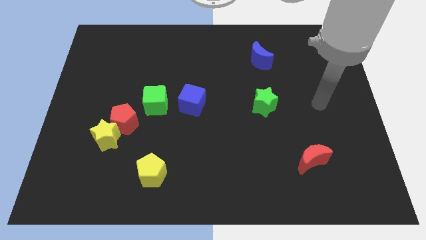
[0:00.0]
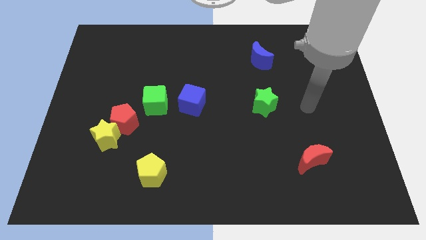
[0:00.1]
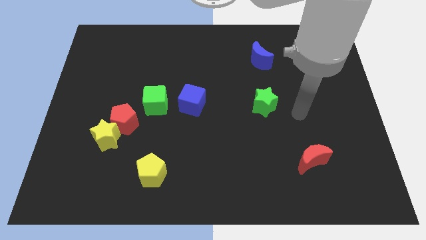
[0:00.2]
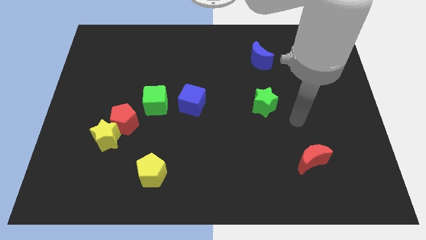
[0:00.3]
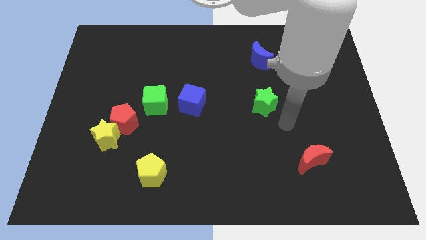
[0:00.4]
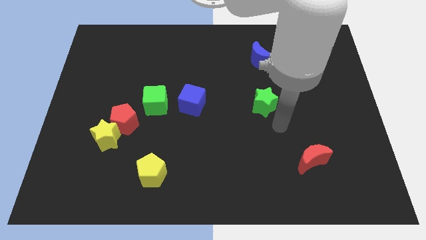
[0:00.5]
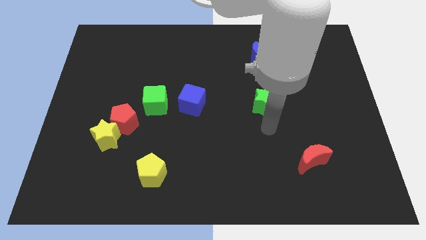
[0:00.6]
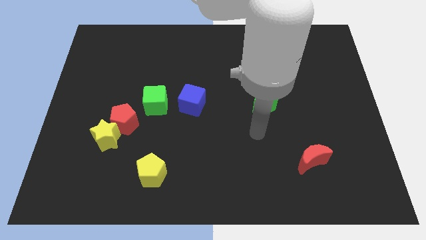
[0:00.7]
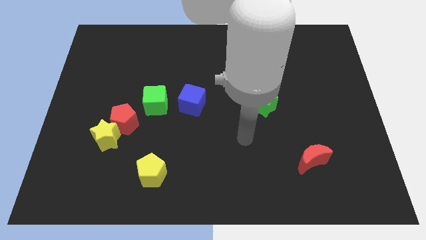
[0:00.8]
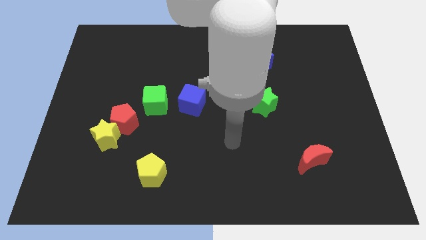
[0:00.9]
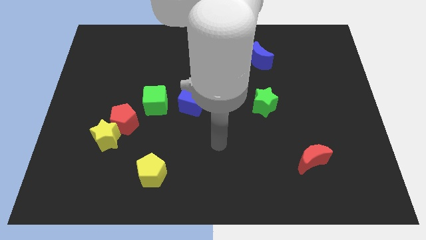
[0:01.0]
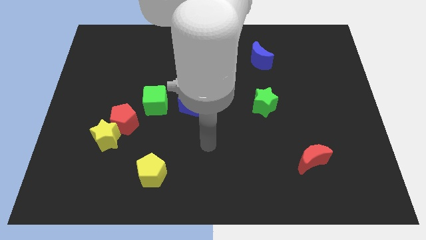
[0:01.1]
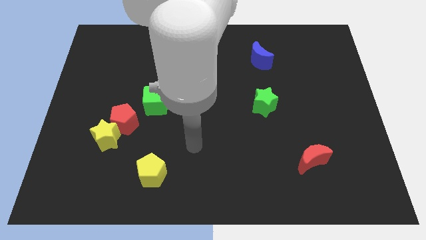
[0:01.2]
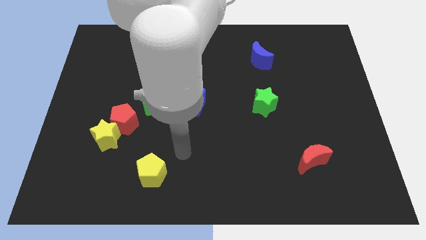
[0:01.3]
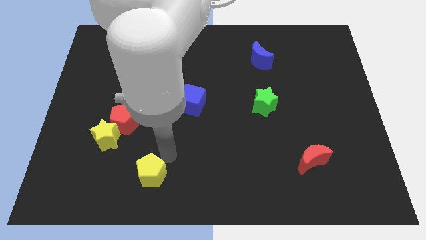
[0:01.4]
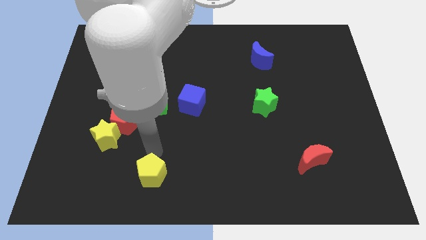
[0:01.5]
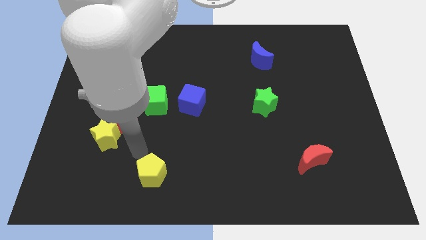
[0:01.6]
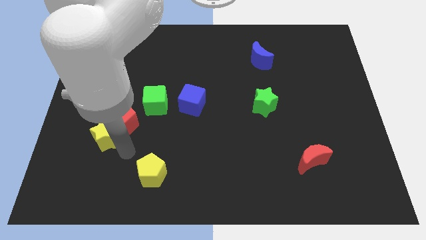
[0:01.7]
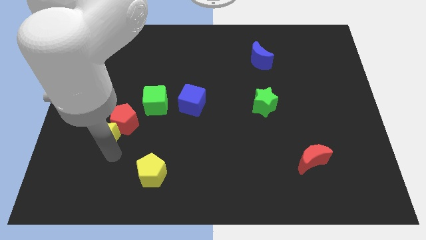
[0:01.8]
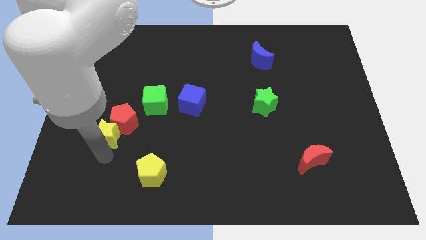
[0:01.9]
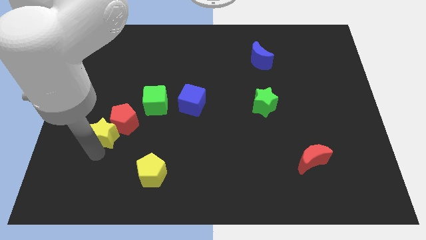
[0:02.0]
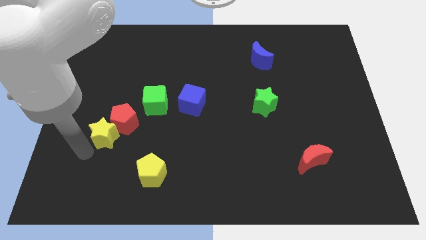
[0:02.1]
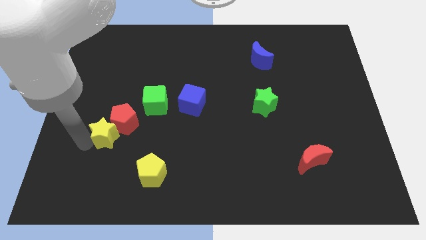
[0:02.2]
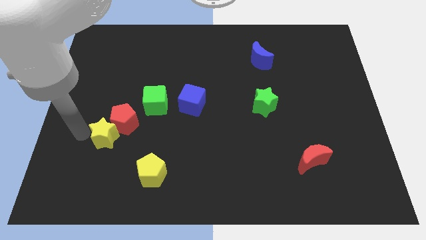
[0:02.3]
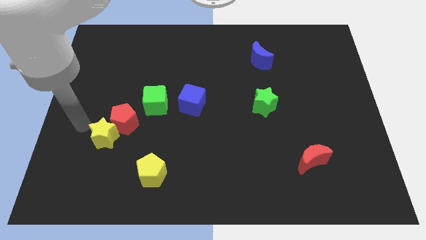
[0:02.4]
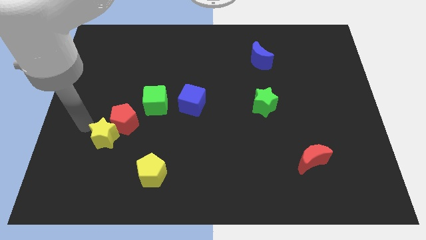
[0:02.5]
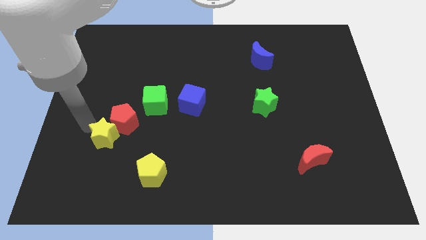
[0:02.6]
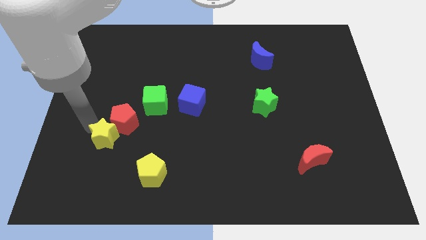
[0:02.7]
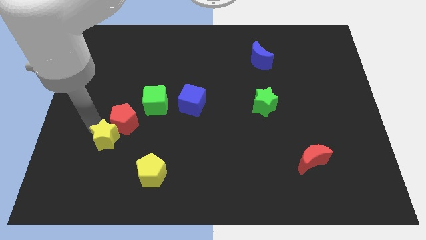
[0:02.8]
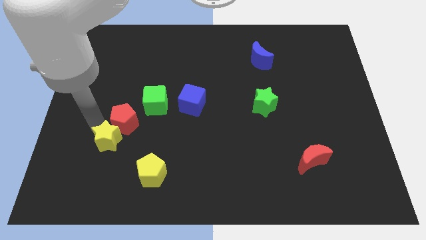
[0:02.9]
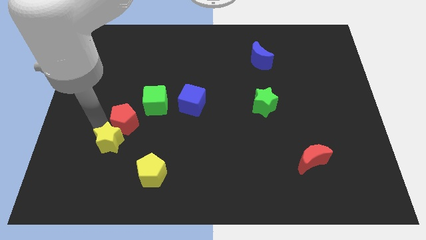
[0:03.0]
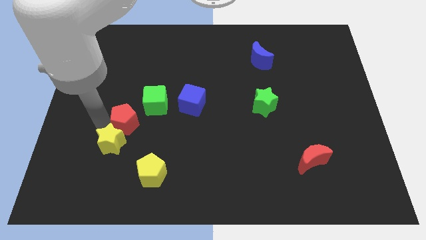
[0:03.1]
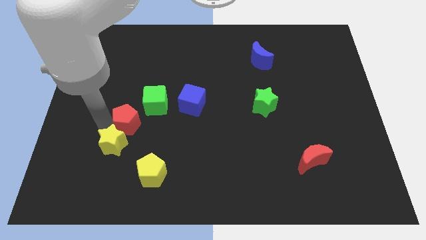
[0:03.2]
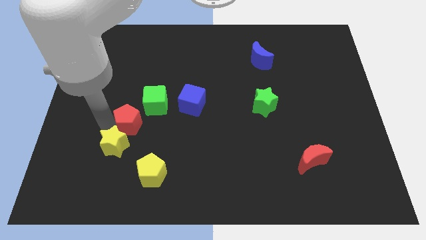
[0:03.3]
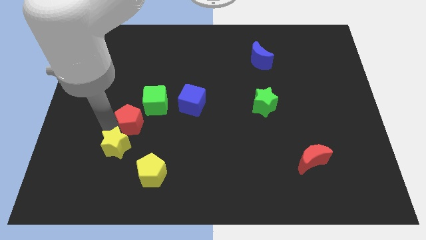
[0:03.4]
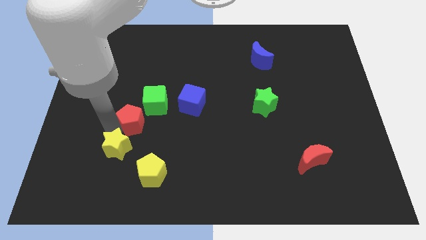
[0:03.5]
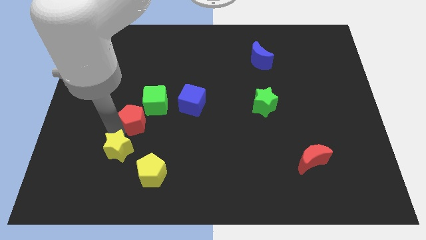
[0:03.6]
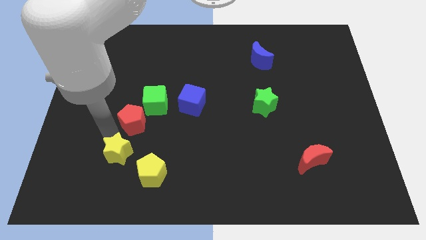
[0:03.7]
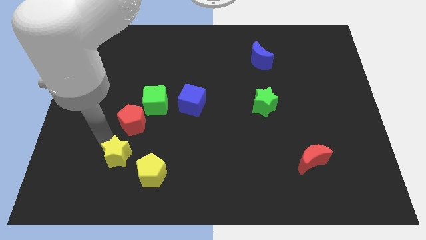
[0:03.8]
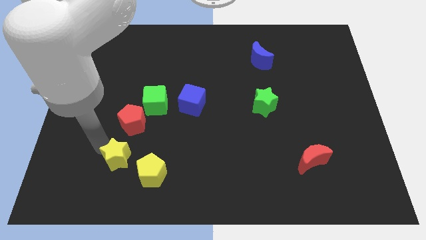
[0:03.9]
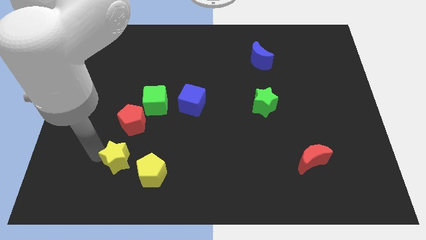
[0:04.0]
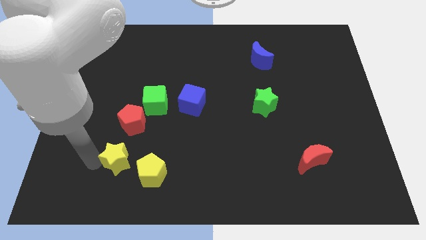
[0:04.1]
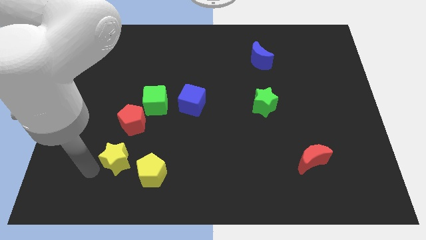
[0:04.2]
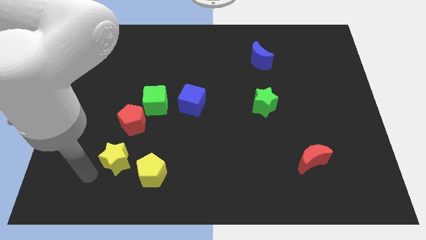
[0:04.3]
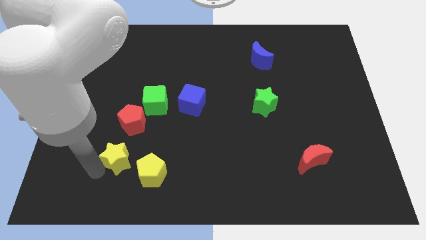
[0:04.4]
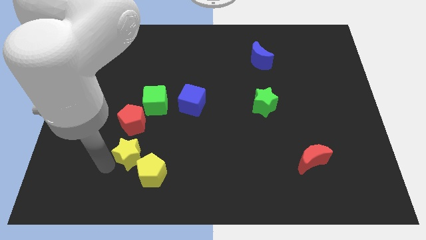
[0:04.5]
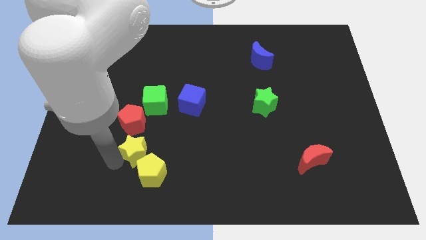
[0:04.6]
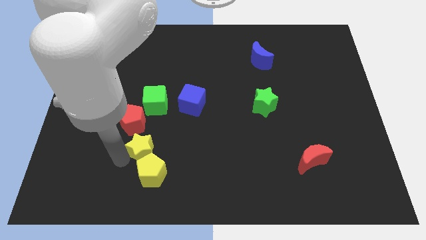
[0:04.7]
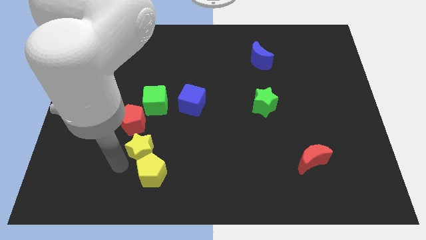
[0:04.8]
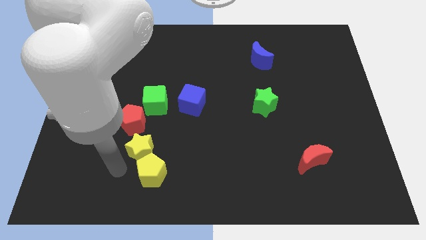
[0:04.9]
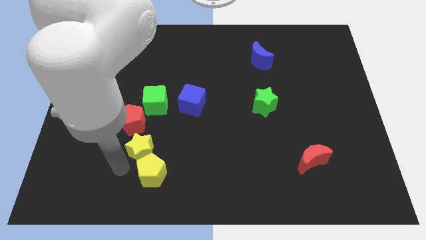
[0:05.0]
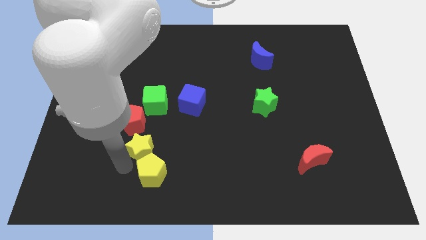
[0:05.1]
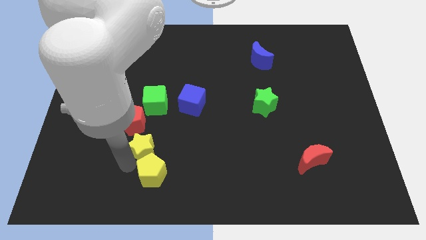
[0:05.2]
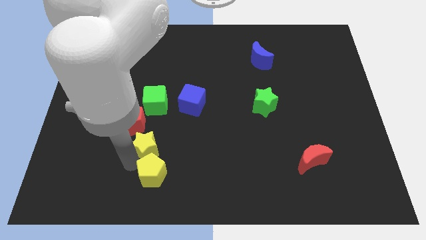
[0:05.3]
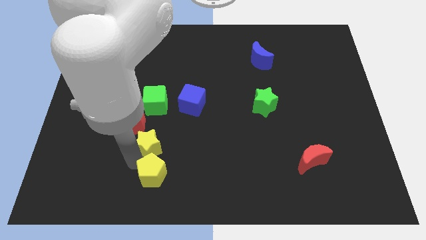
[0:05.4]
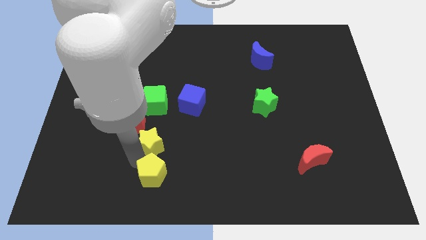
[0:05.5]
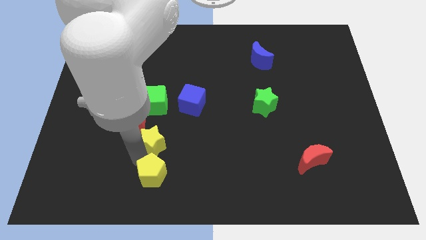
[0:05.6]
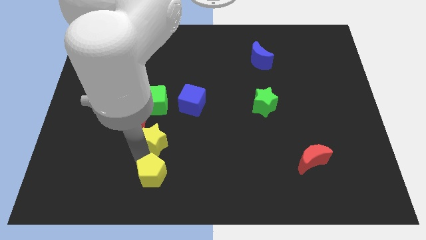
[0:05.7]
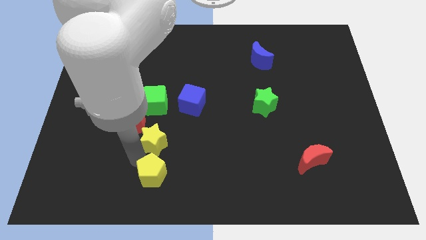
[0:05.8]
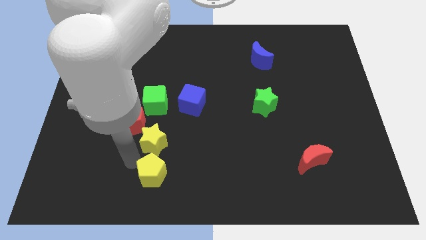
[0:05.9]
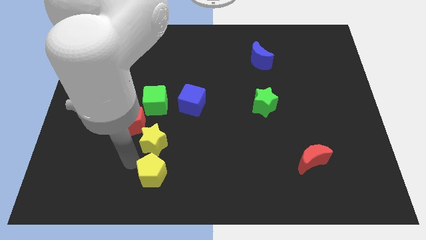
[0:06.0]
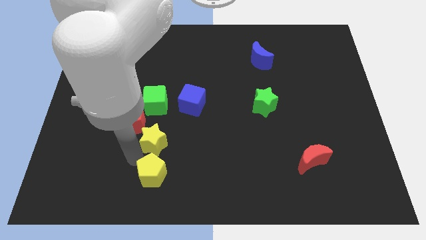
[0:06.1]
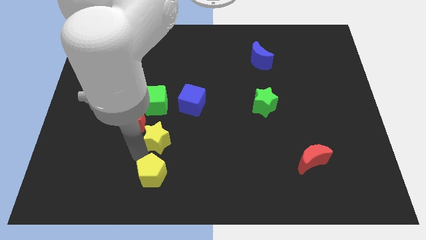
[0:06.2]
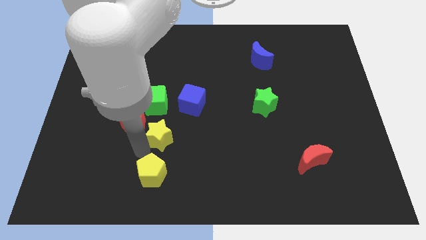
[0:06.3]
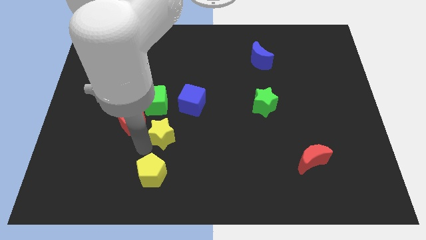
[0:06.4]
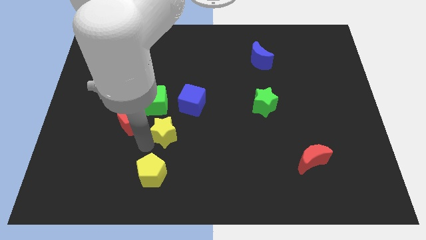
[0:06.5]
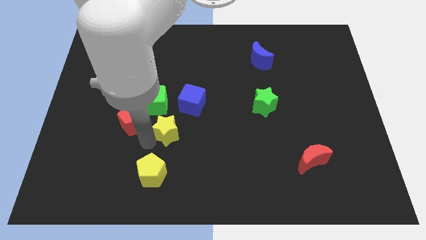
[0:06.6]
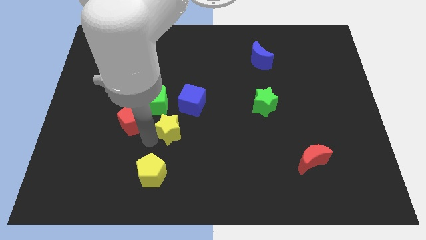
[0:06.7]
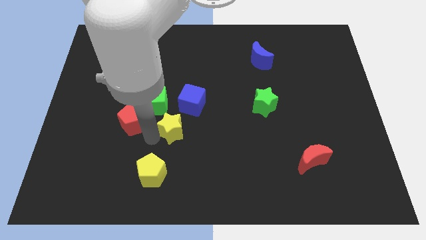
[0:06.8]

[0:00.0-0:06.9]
put the yellow star to the center of the board
